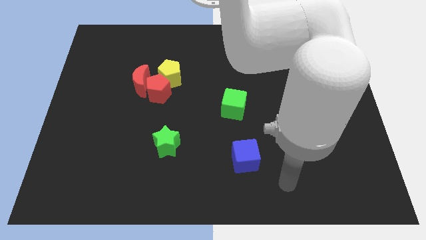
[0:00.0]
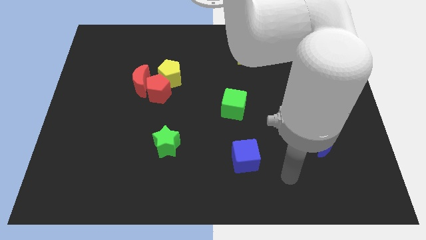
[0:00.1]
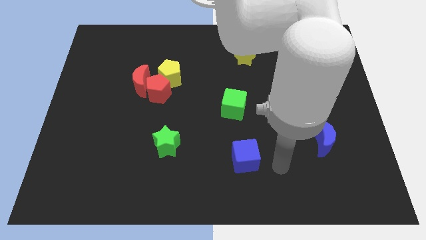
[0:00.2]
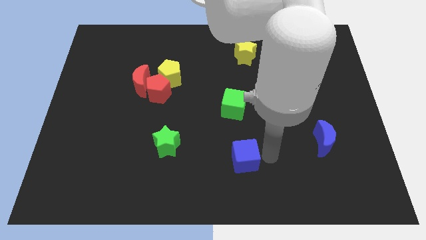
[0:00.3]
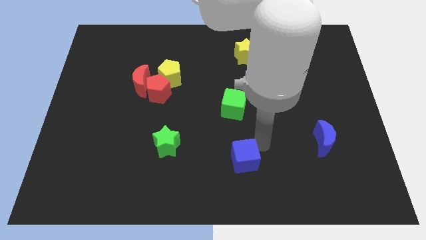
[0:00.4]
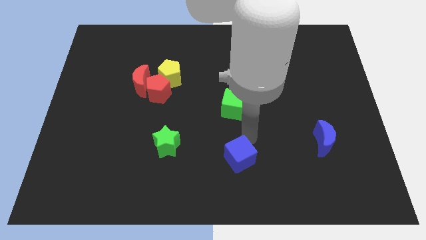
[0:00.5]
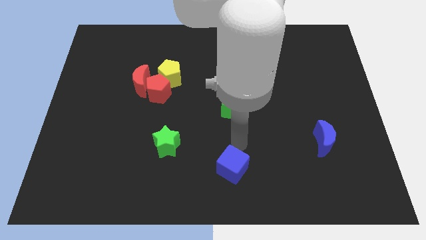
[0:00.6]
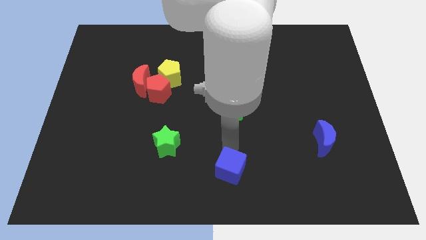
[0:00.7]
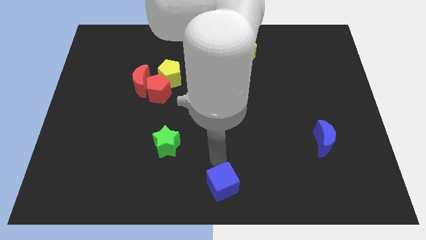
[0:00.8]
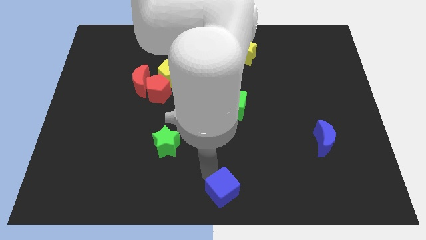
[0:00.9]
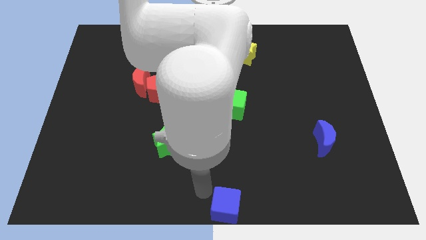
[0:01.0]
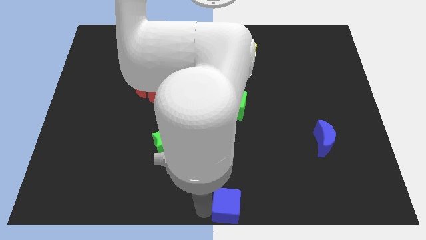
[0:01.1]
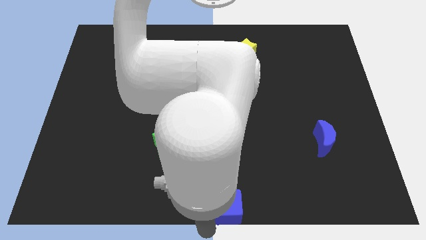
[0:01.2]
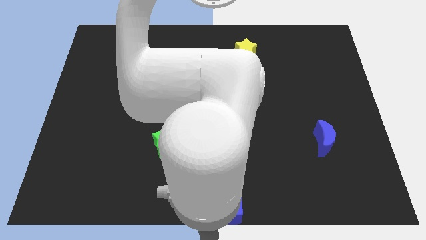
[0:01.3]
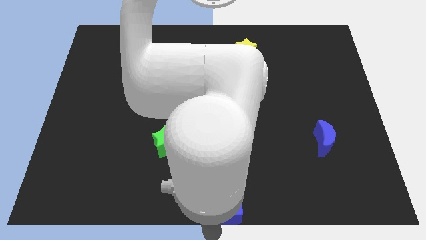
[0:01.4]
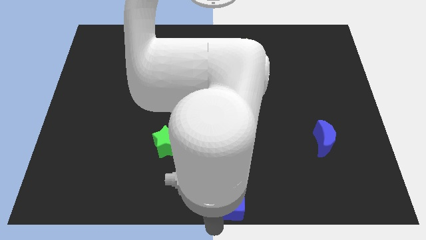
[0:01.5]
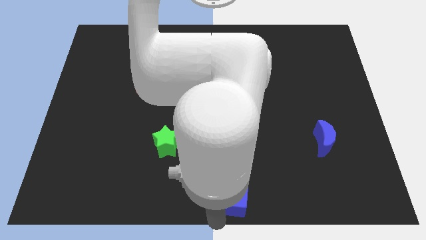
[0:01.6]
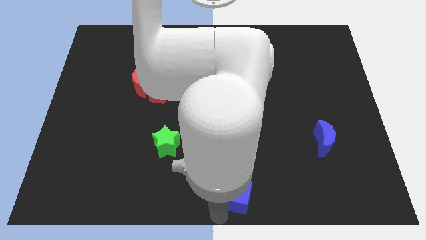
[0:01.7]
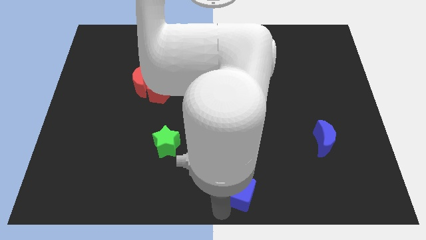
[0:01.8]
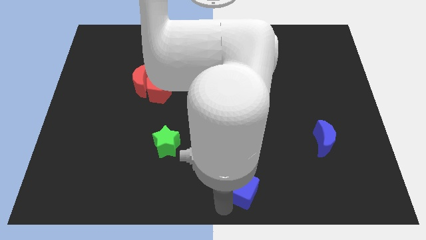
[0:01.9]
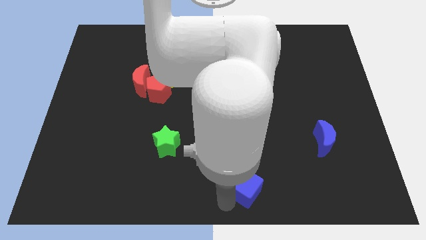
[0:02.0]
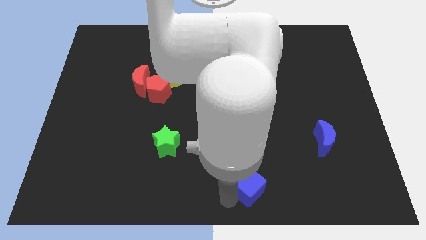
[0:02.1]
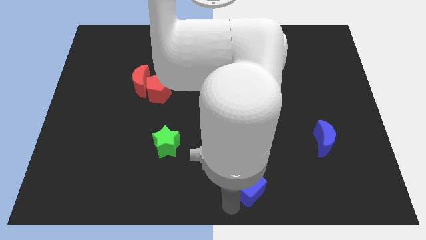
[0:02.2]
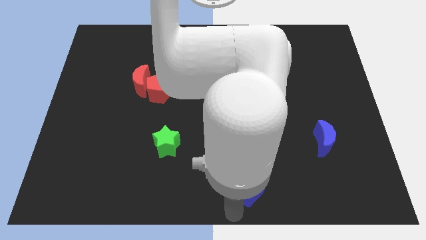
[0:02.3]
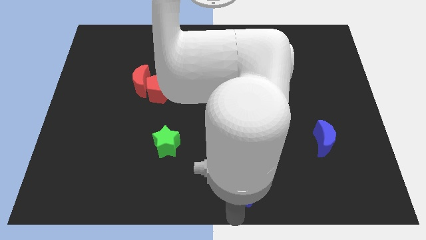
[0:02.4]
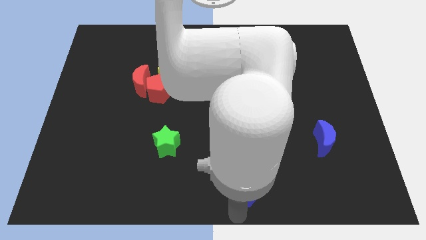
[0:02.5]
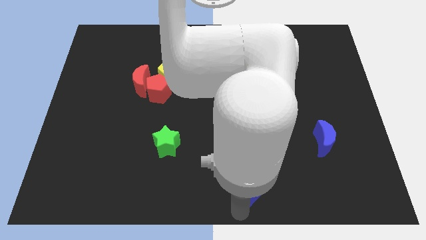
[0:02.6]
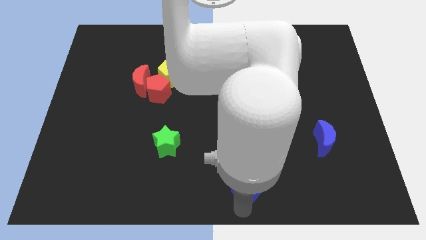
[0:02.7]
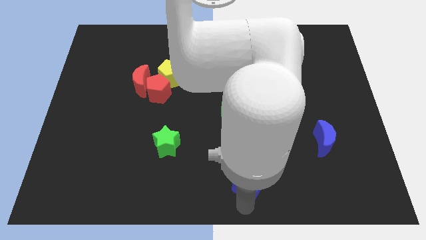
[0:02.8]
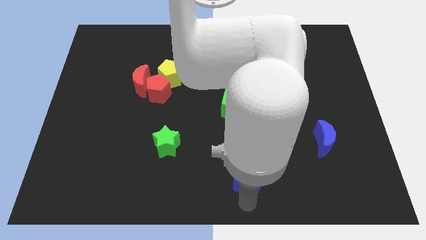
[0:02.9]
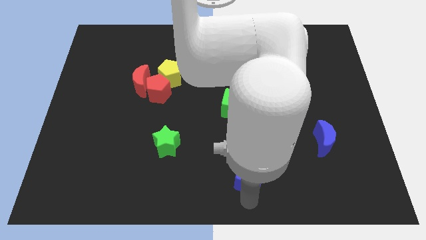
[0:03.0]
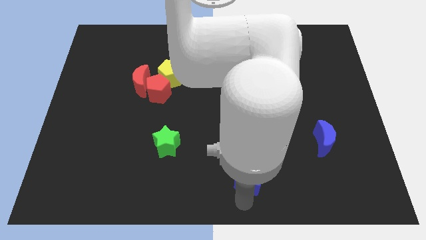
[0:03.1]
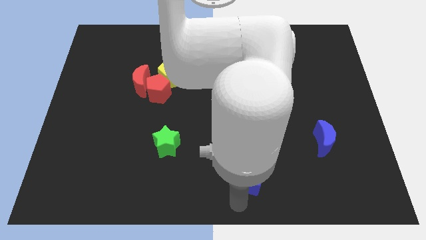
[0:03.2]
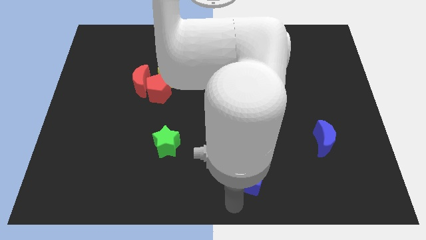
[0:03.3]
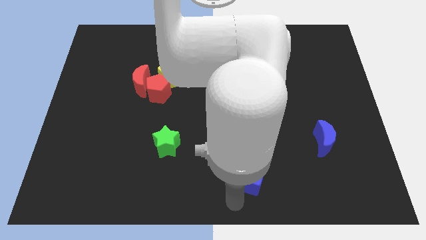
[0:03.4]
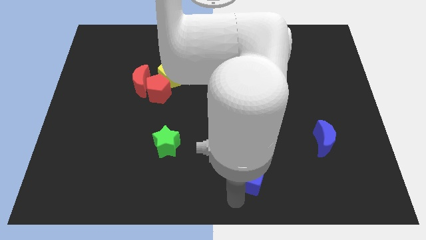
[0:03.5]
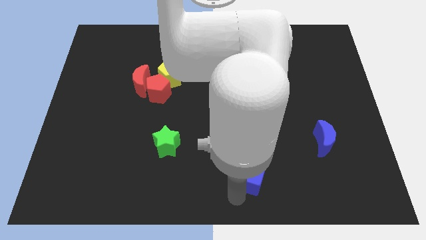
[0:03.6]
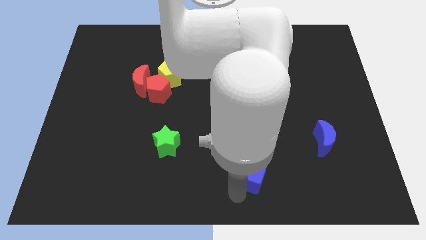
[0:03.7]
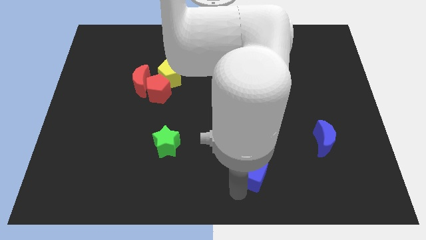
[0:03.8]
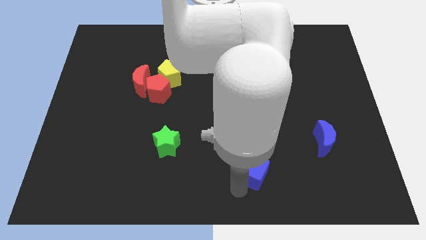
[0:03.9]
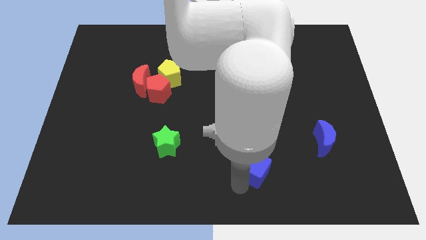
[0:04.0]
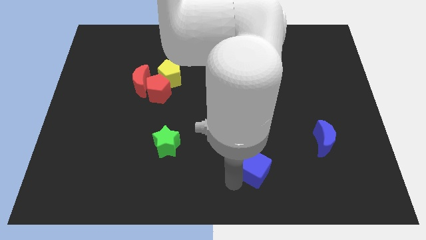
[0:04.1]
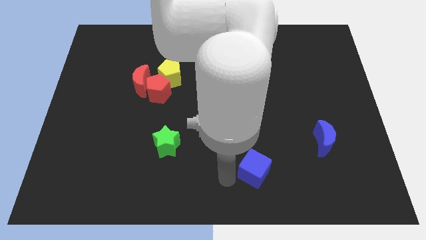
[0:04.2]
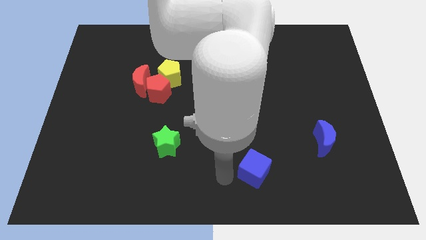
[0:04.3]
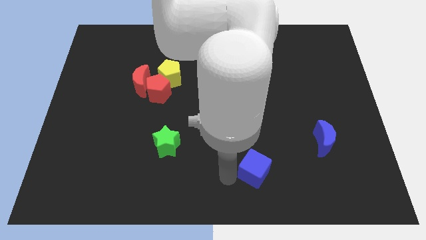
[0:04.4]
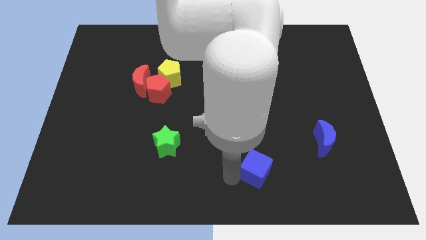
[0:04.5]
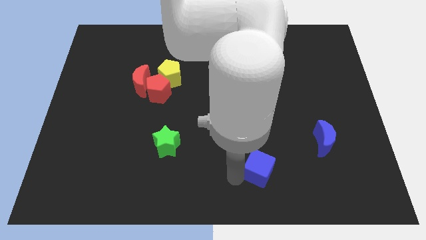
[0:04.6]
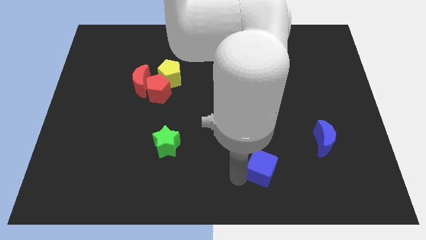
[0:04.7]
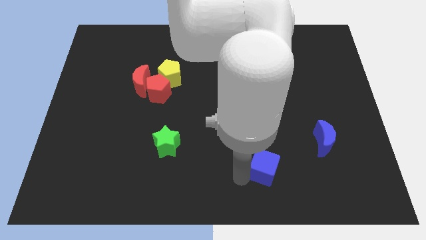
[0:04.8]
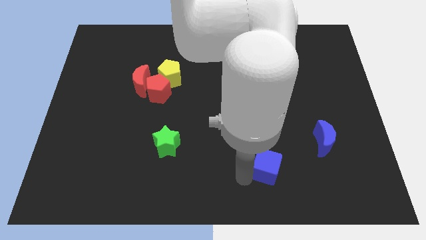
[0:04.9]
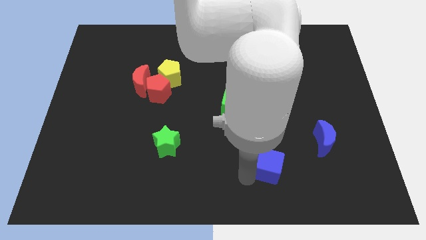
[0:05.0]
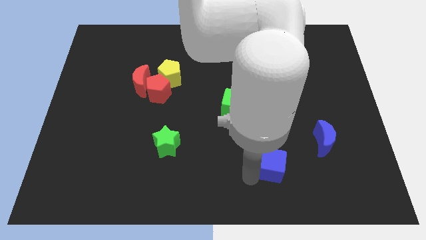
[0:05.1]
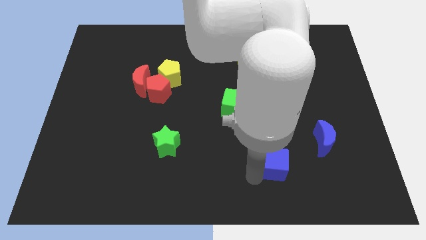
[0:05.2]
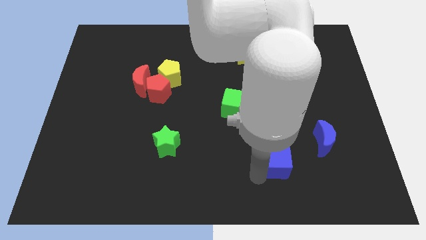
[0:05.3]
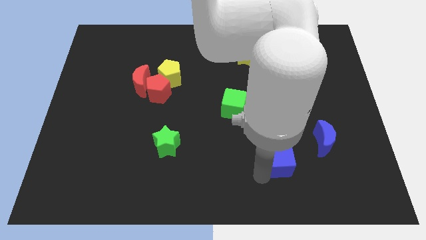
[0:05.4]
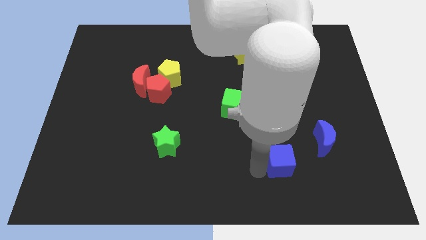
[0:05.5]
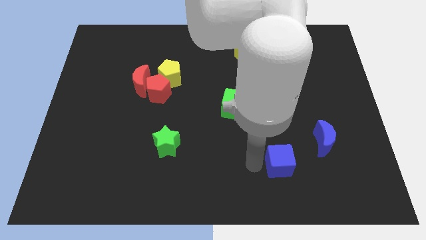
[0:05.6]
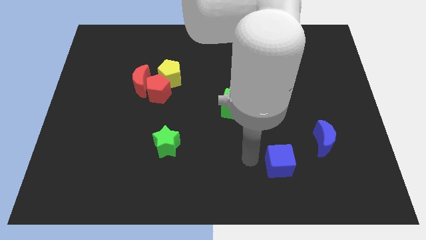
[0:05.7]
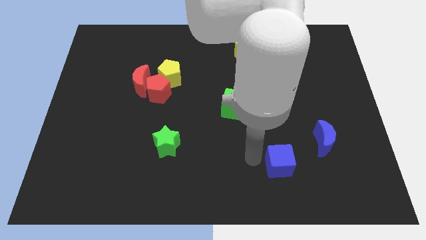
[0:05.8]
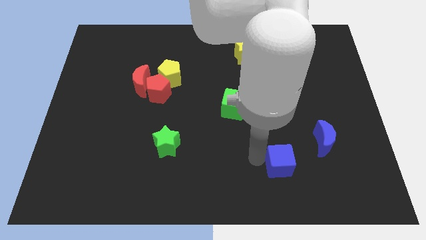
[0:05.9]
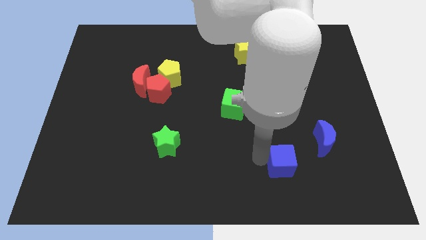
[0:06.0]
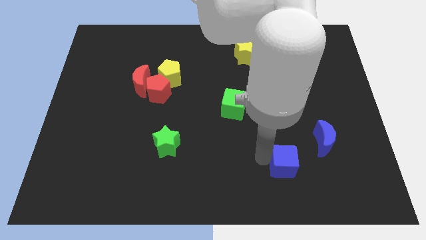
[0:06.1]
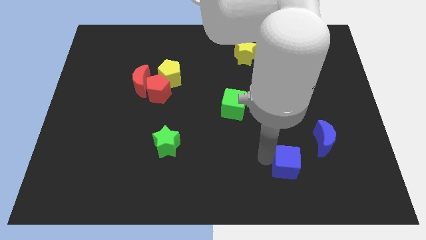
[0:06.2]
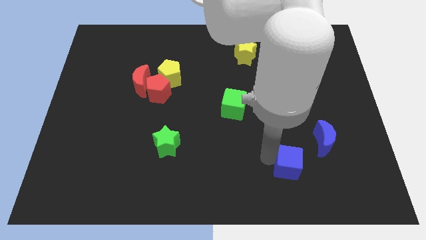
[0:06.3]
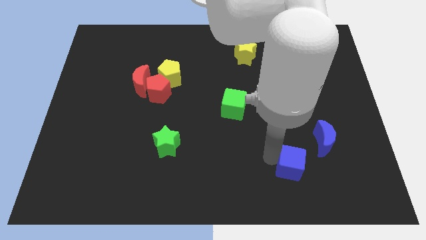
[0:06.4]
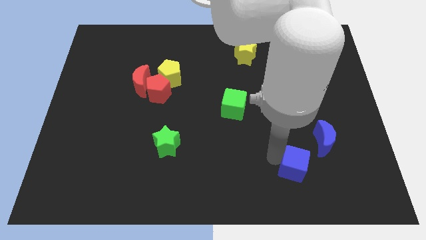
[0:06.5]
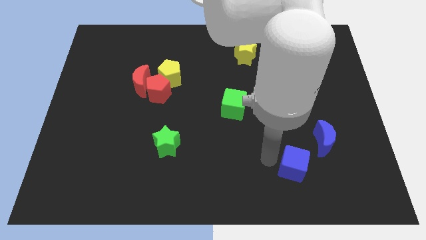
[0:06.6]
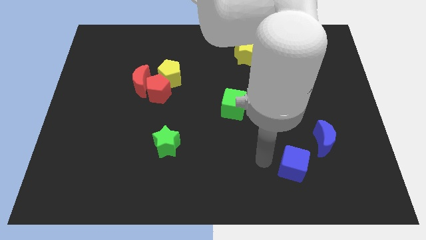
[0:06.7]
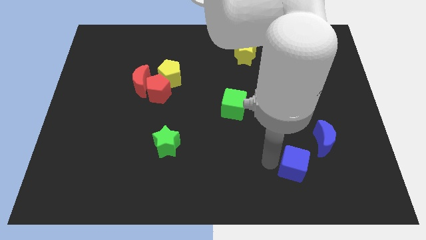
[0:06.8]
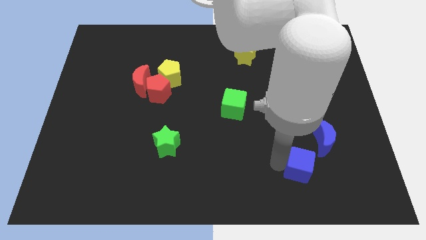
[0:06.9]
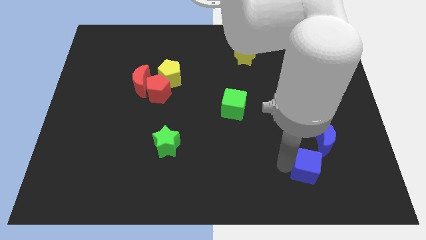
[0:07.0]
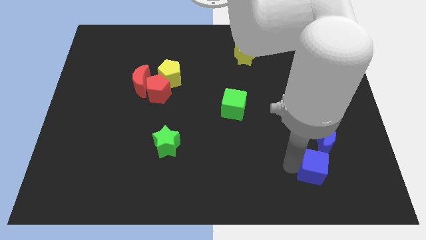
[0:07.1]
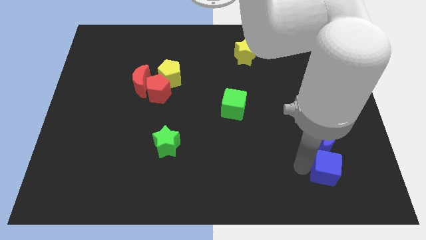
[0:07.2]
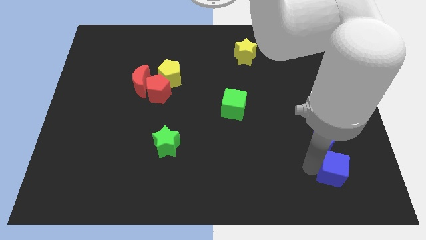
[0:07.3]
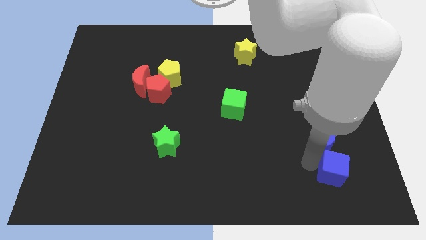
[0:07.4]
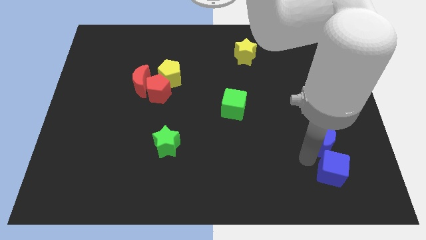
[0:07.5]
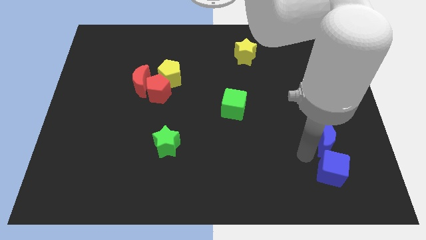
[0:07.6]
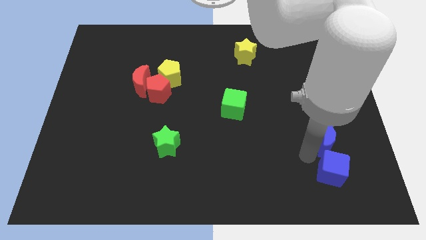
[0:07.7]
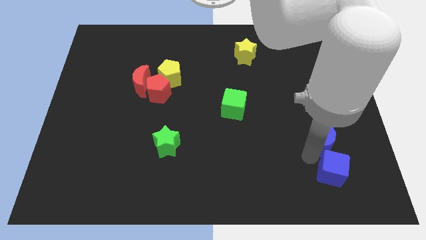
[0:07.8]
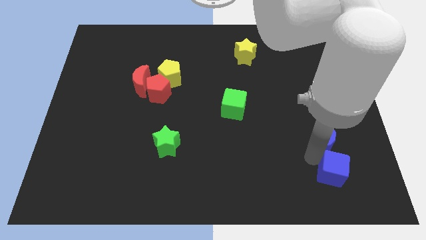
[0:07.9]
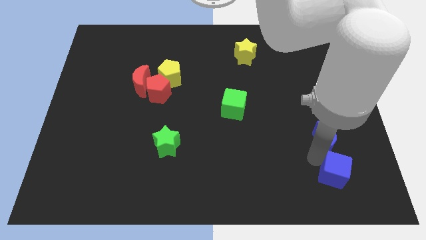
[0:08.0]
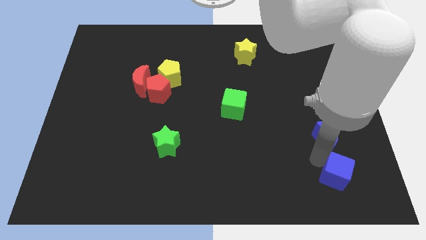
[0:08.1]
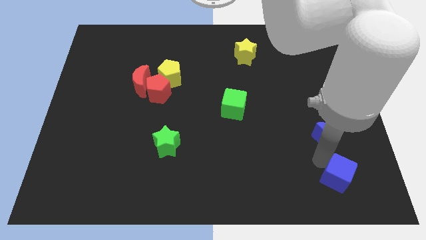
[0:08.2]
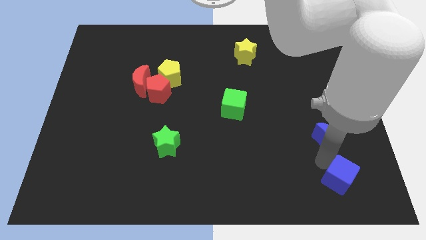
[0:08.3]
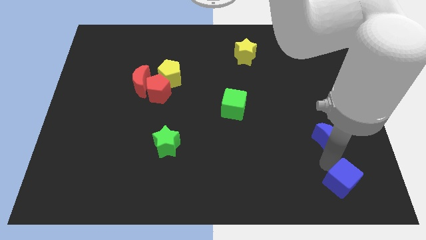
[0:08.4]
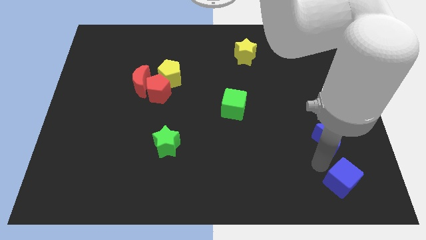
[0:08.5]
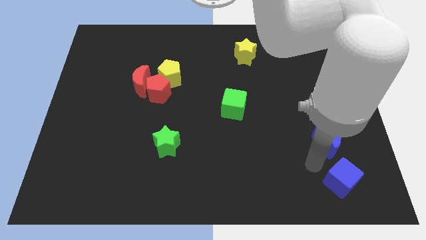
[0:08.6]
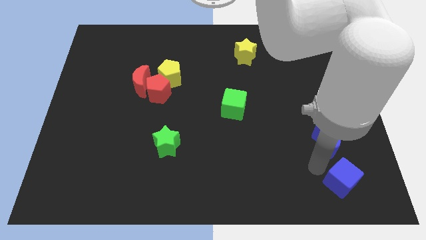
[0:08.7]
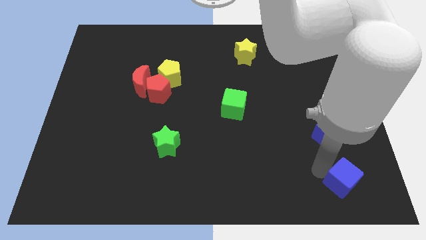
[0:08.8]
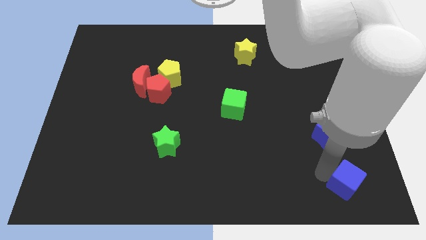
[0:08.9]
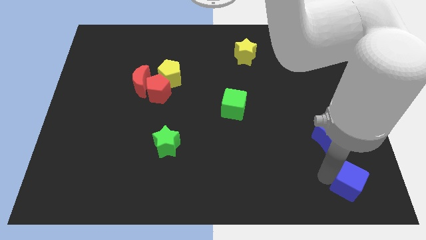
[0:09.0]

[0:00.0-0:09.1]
move the blue cube to the lower right corner
